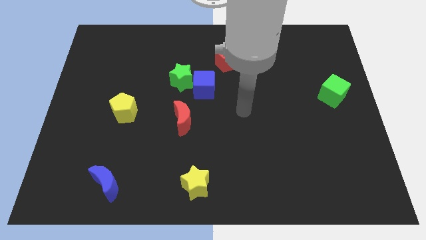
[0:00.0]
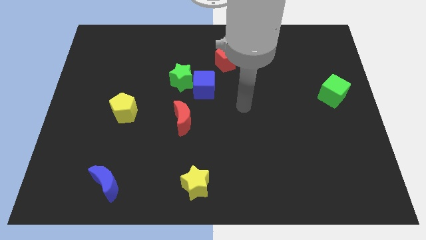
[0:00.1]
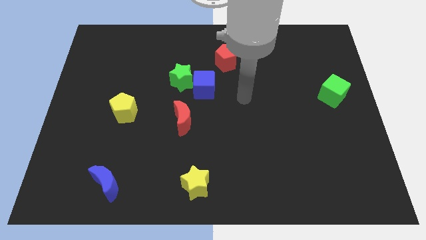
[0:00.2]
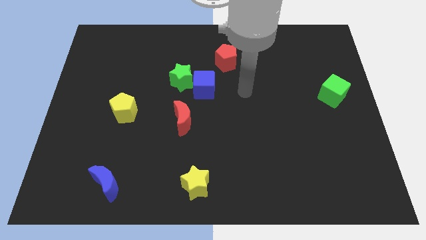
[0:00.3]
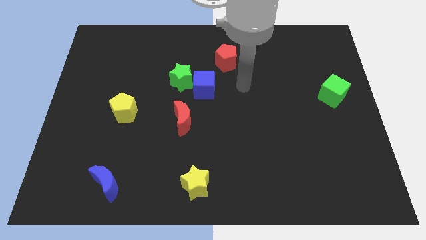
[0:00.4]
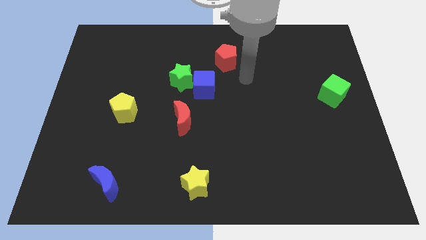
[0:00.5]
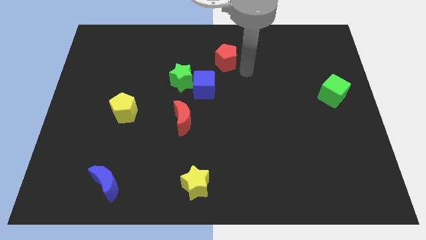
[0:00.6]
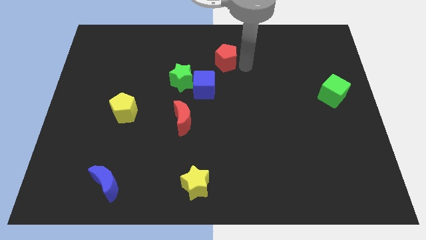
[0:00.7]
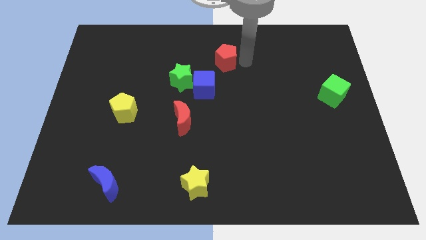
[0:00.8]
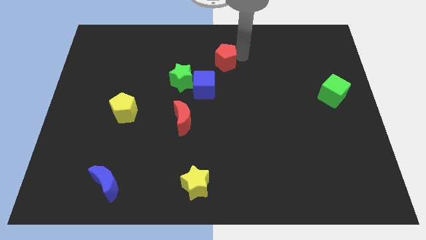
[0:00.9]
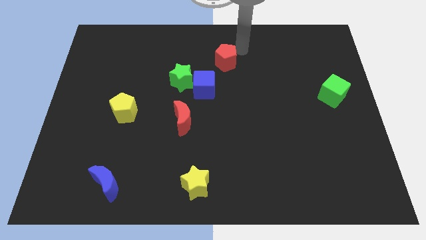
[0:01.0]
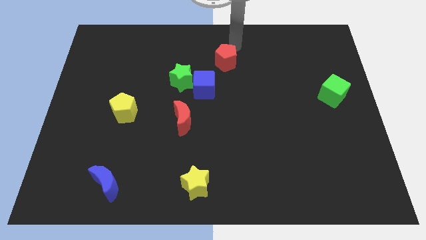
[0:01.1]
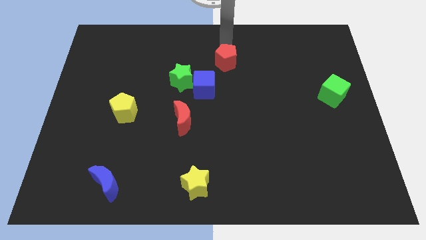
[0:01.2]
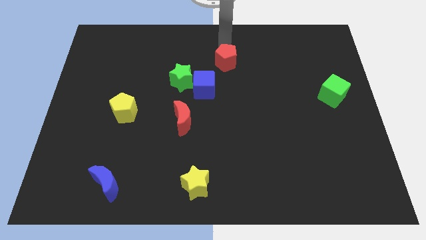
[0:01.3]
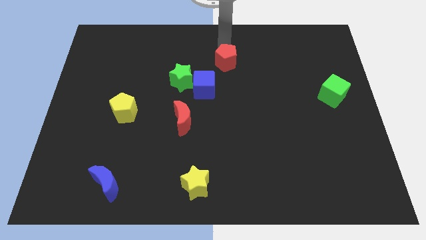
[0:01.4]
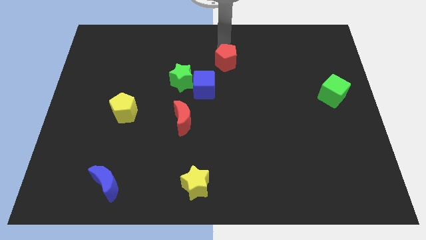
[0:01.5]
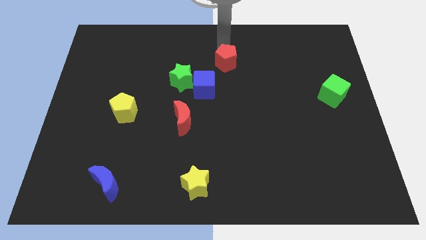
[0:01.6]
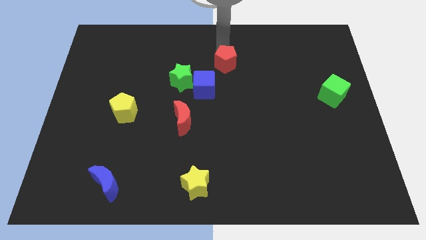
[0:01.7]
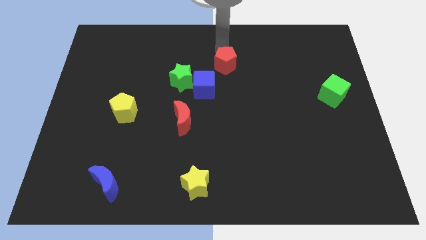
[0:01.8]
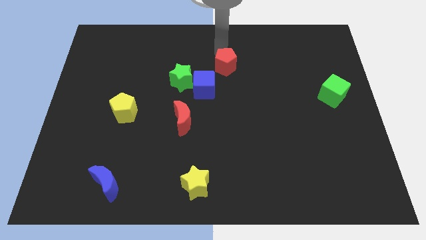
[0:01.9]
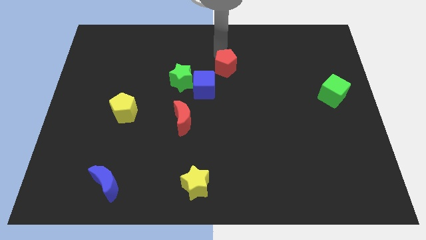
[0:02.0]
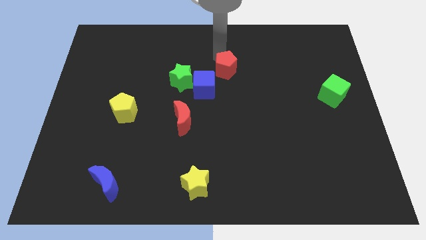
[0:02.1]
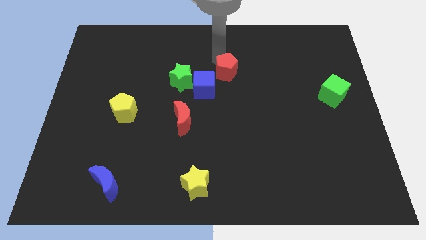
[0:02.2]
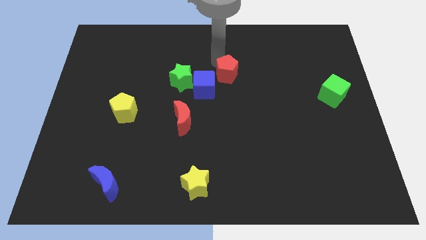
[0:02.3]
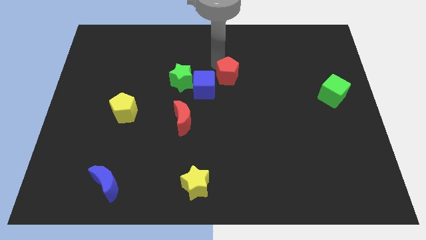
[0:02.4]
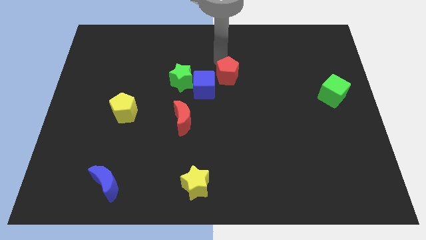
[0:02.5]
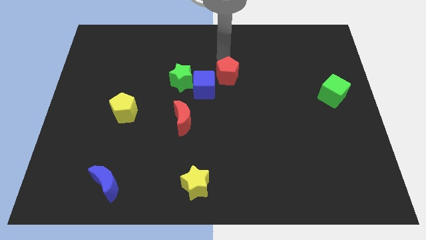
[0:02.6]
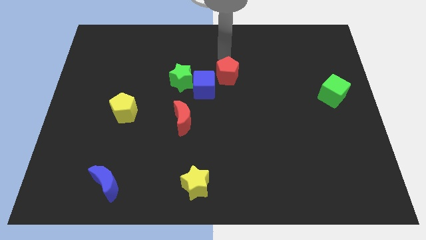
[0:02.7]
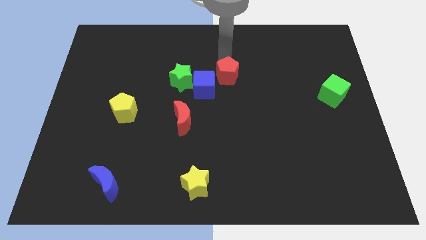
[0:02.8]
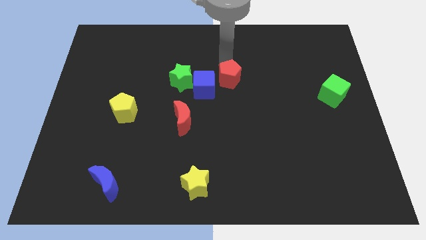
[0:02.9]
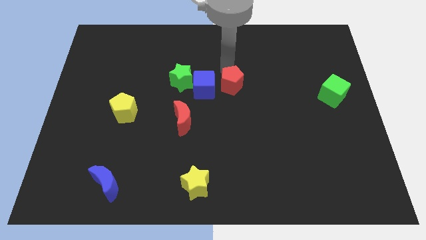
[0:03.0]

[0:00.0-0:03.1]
slightly move the red pentagon downwards

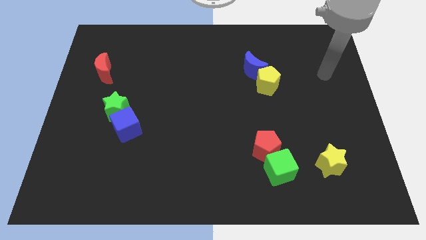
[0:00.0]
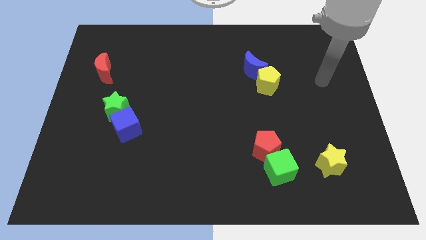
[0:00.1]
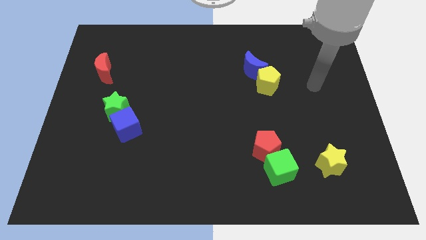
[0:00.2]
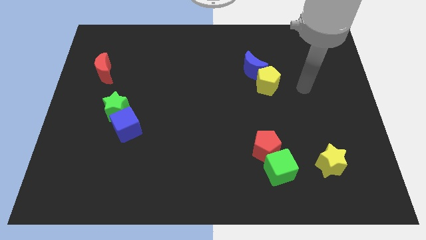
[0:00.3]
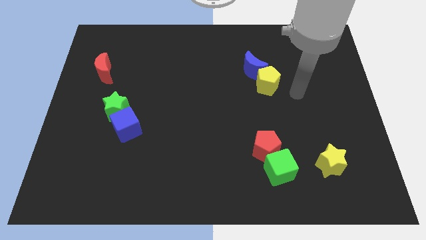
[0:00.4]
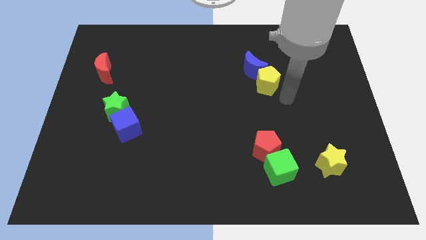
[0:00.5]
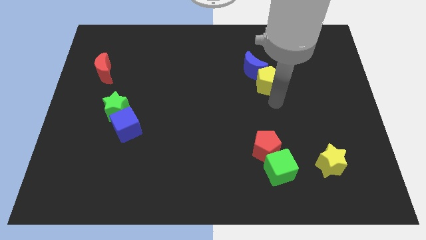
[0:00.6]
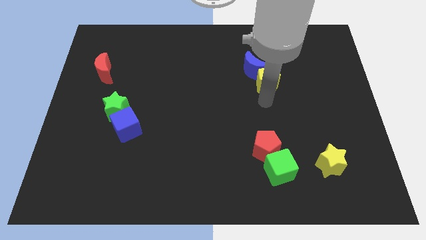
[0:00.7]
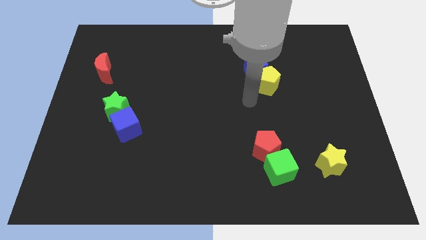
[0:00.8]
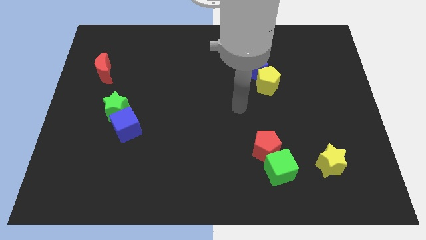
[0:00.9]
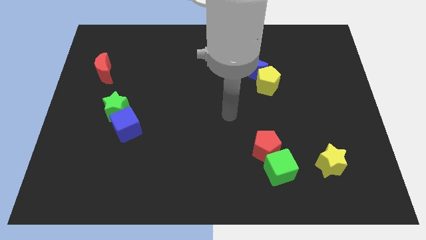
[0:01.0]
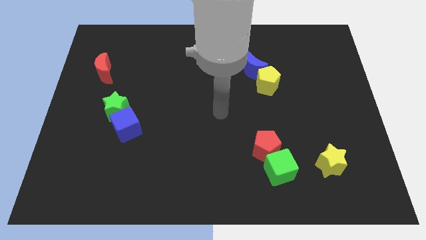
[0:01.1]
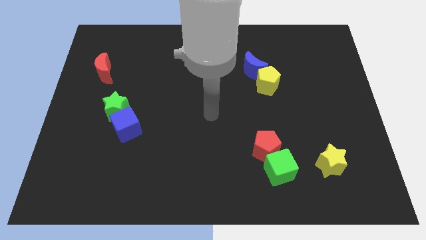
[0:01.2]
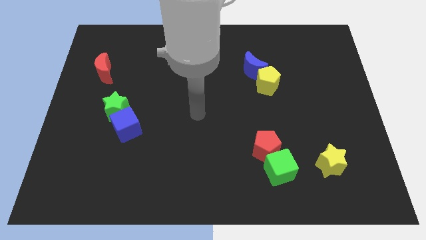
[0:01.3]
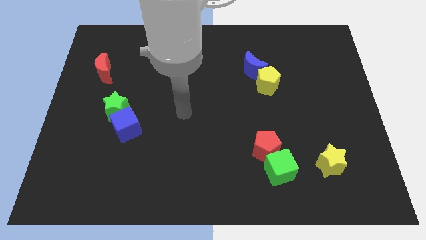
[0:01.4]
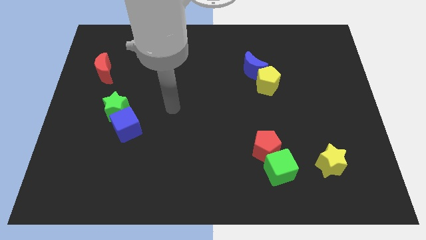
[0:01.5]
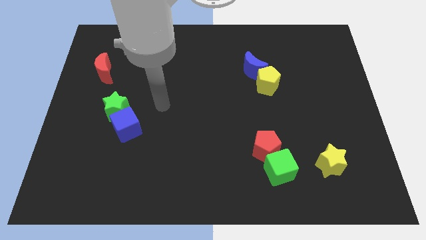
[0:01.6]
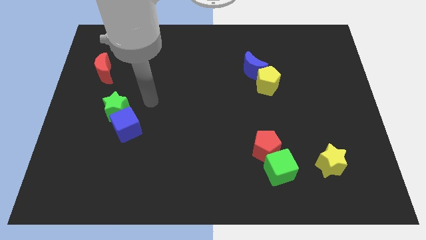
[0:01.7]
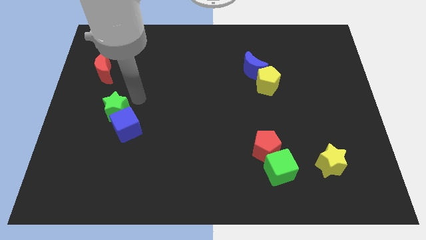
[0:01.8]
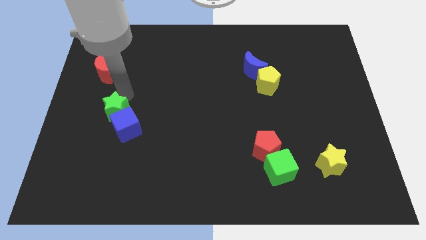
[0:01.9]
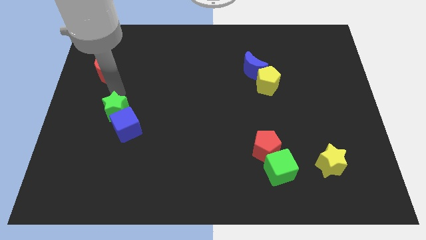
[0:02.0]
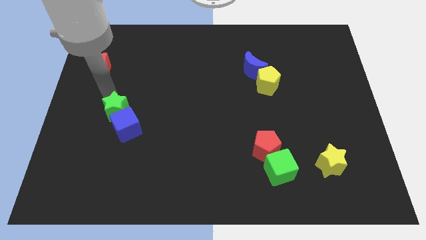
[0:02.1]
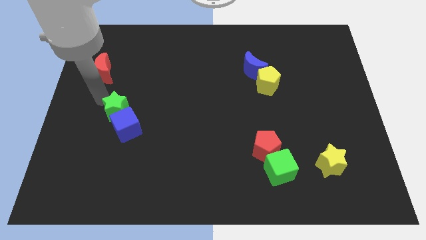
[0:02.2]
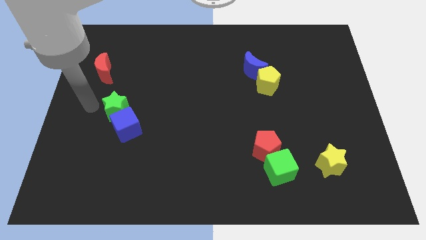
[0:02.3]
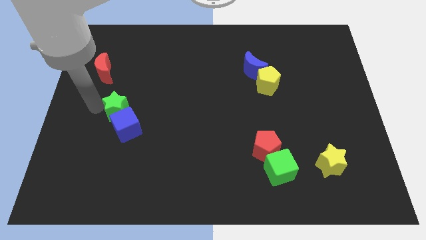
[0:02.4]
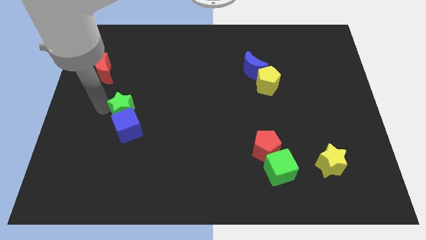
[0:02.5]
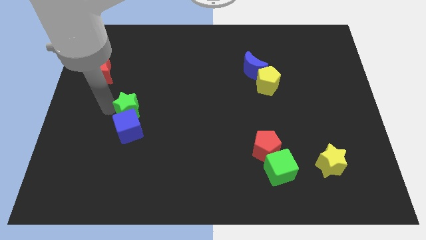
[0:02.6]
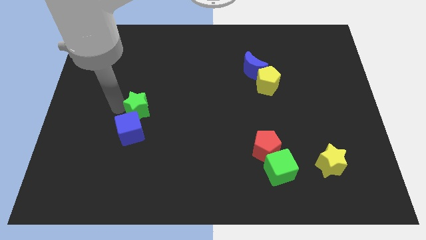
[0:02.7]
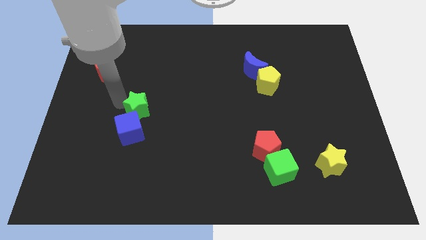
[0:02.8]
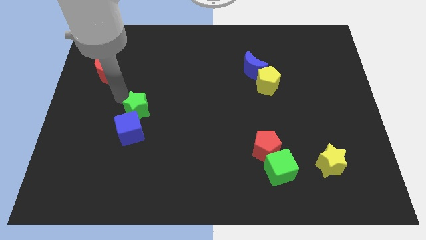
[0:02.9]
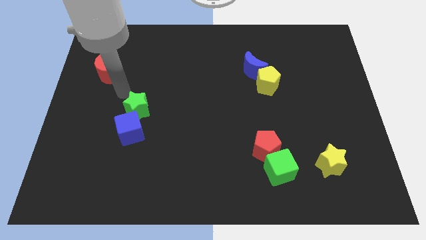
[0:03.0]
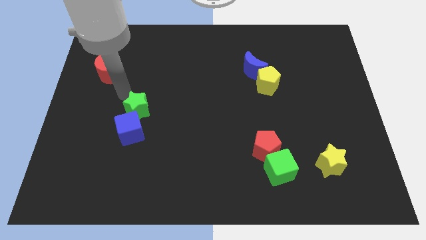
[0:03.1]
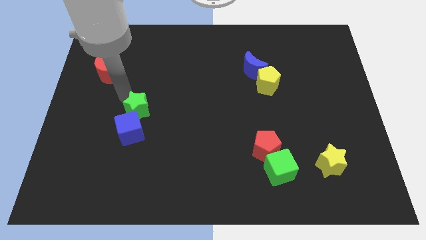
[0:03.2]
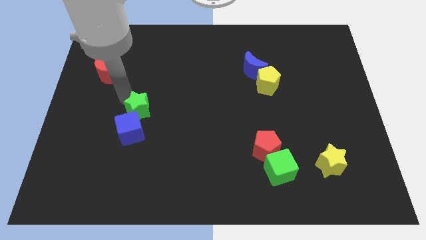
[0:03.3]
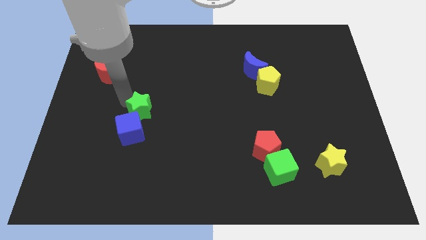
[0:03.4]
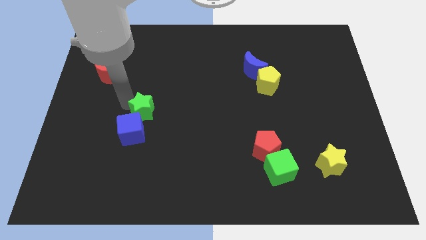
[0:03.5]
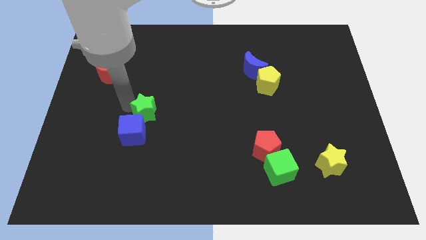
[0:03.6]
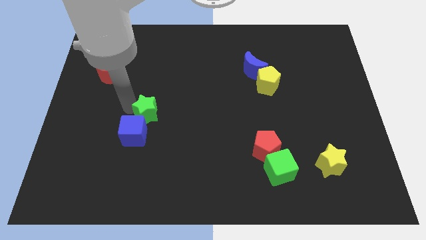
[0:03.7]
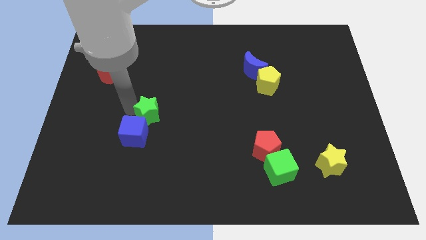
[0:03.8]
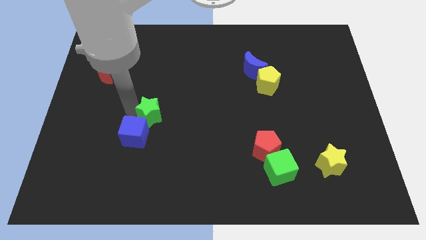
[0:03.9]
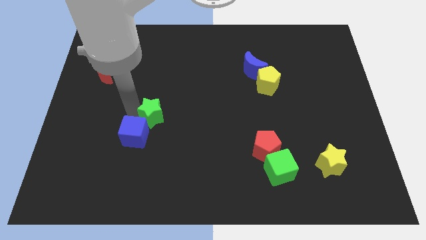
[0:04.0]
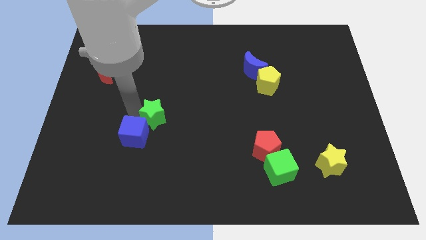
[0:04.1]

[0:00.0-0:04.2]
slightly slide the green star down and then to the right

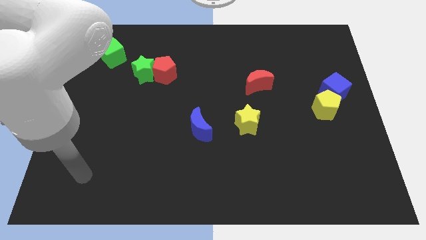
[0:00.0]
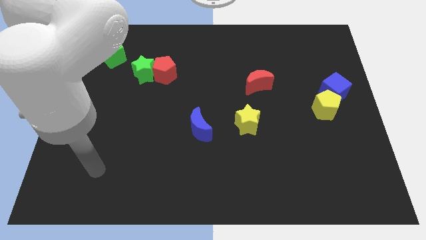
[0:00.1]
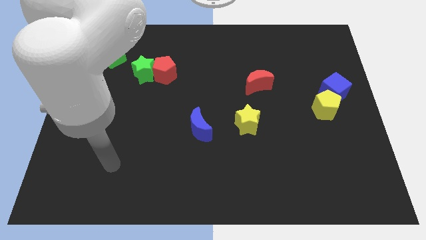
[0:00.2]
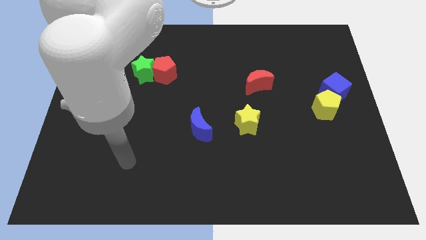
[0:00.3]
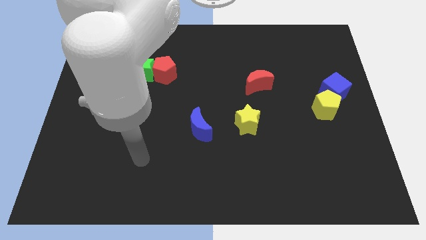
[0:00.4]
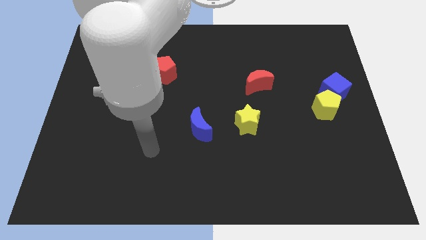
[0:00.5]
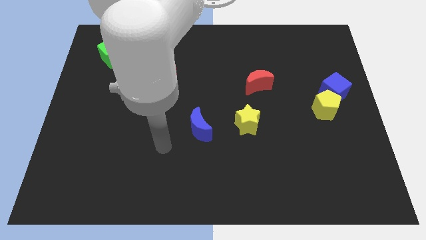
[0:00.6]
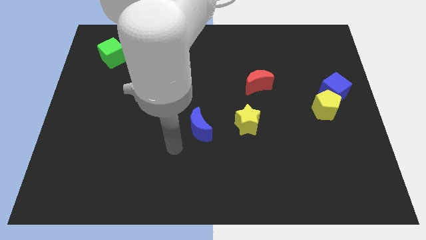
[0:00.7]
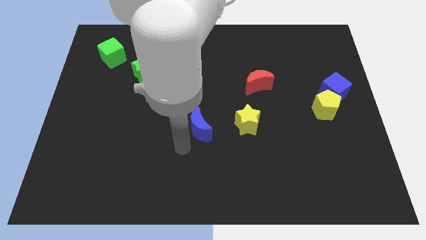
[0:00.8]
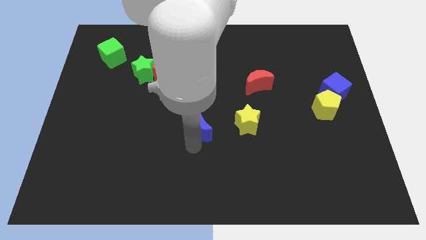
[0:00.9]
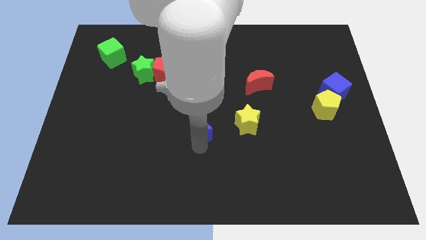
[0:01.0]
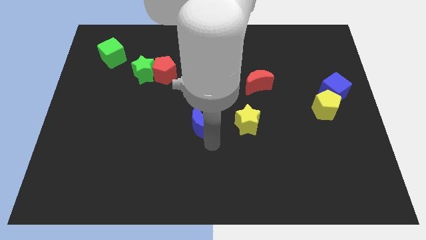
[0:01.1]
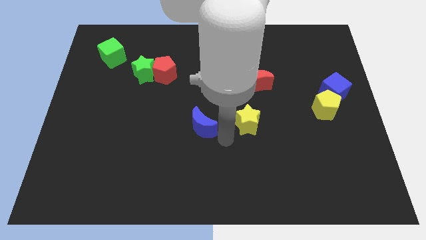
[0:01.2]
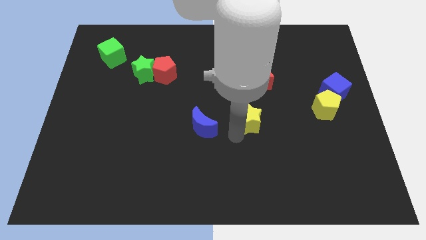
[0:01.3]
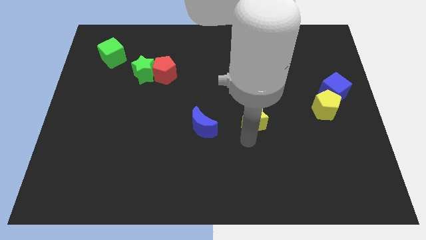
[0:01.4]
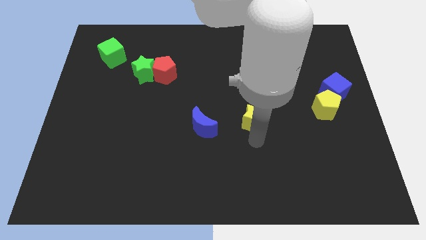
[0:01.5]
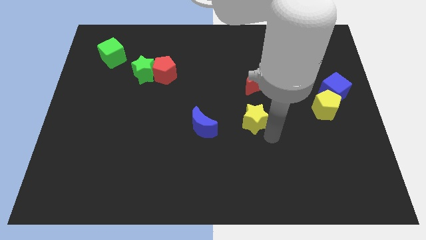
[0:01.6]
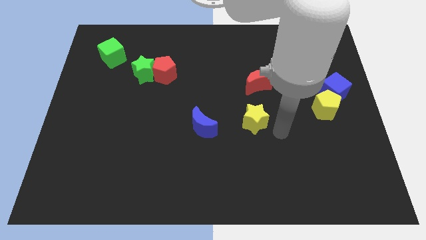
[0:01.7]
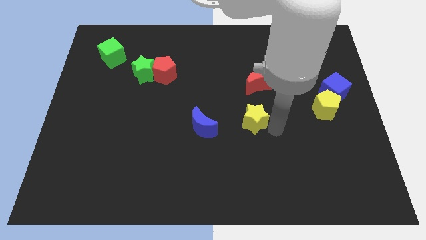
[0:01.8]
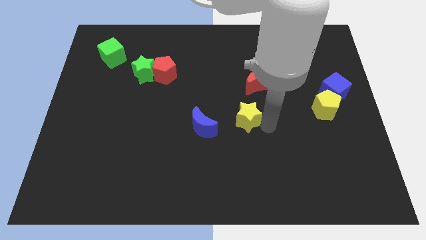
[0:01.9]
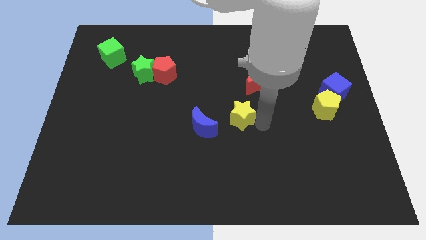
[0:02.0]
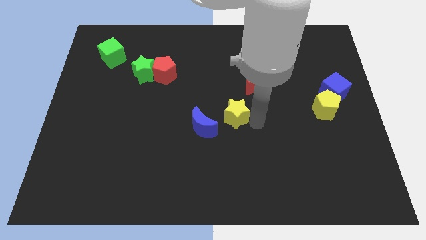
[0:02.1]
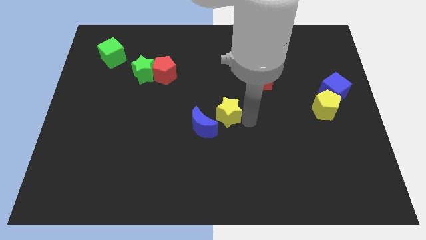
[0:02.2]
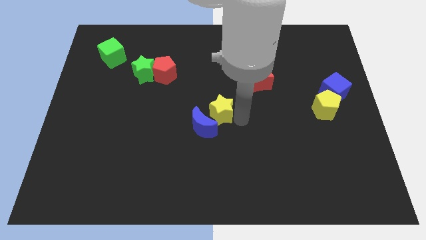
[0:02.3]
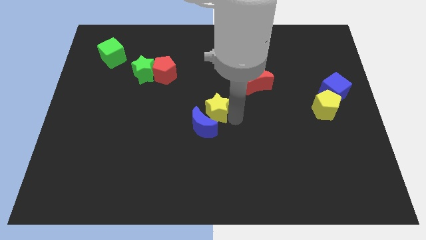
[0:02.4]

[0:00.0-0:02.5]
slide the yellow star somewhat upwards and then left
